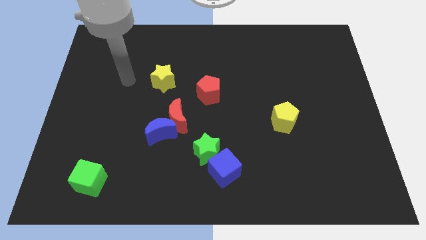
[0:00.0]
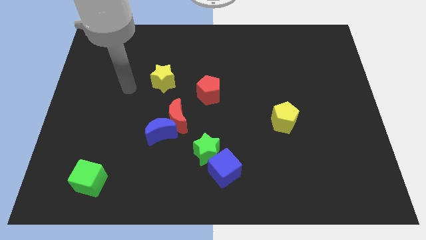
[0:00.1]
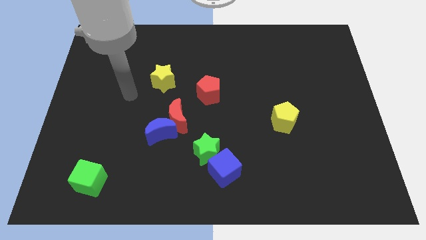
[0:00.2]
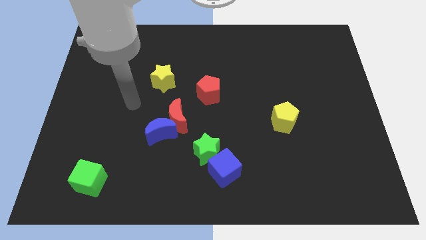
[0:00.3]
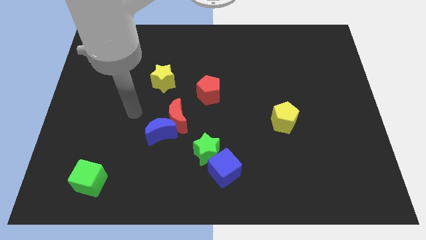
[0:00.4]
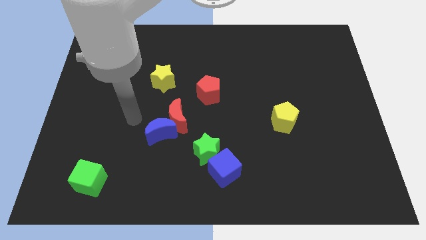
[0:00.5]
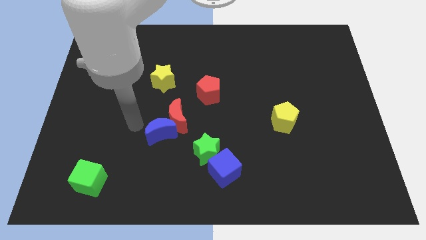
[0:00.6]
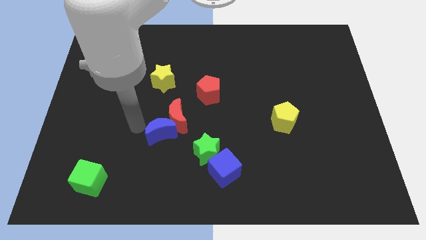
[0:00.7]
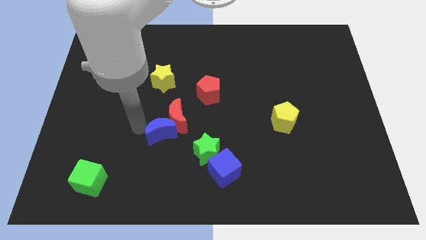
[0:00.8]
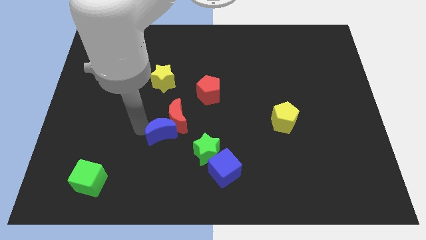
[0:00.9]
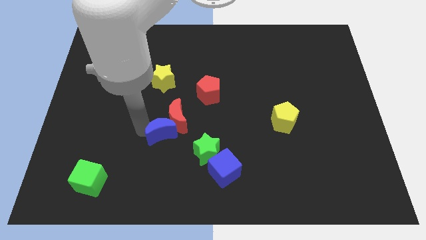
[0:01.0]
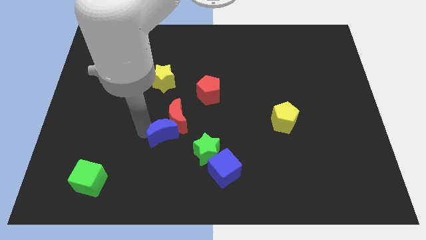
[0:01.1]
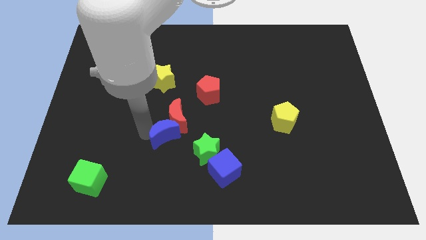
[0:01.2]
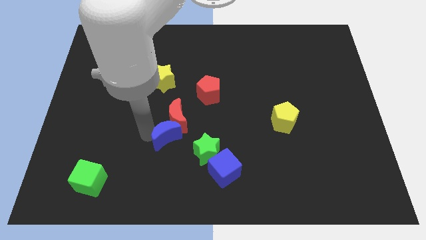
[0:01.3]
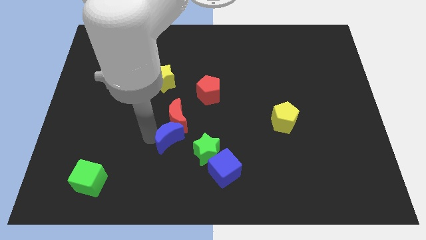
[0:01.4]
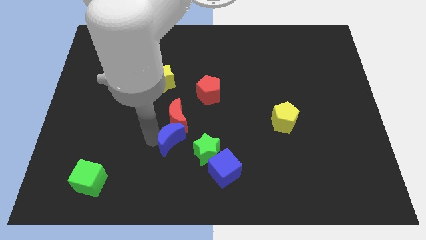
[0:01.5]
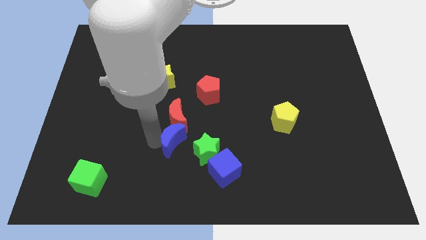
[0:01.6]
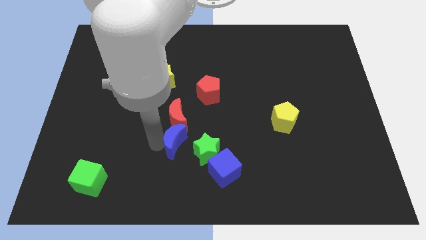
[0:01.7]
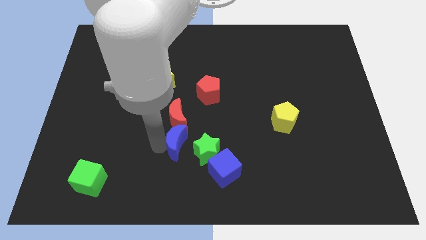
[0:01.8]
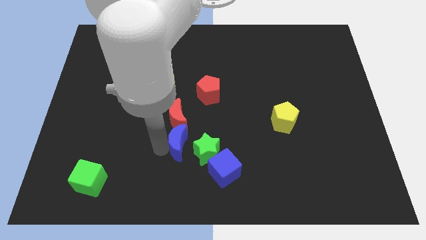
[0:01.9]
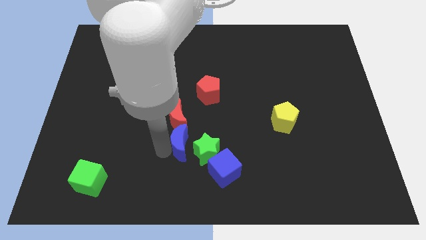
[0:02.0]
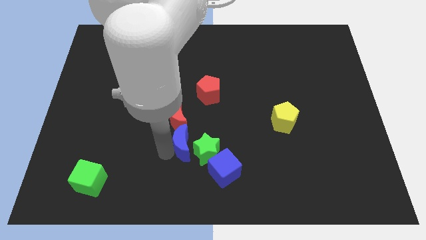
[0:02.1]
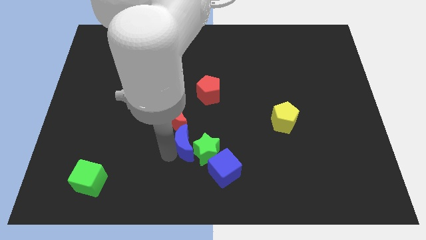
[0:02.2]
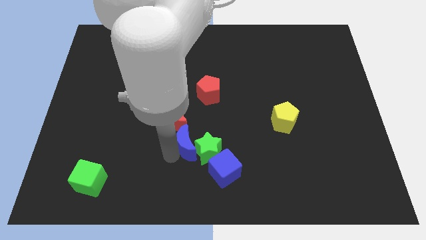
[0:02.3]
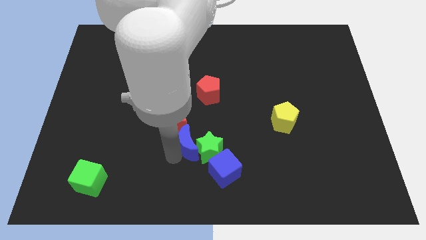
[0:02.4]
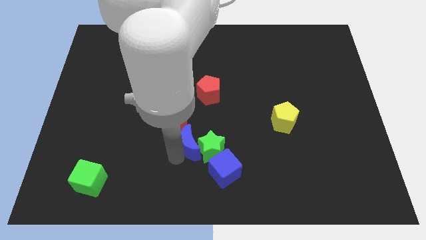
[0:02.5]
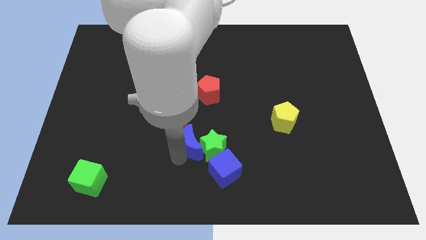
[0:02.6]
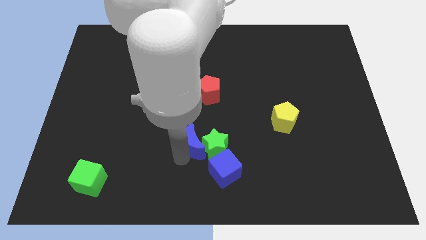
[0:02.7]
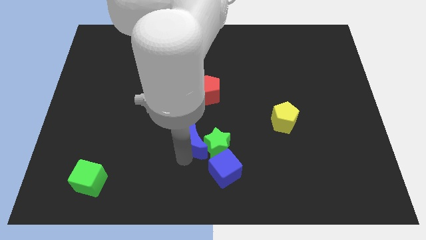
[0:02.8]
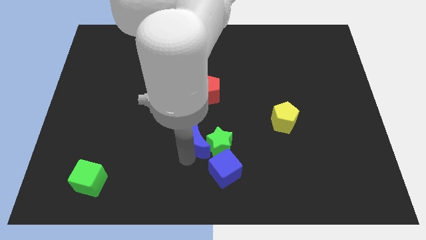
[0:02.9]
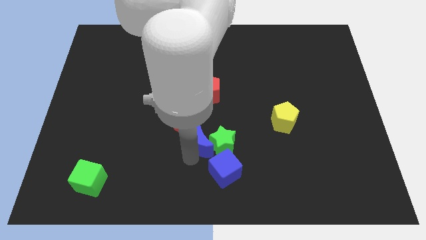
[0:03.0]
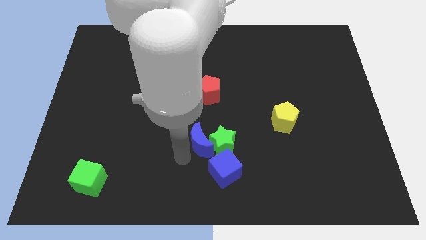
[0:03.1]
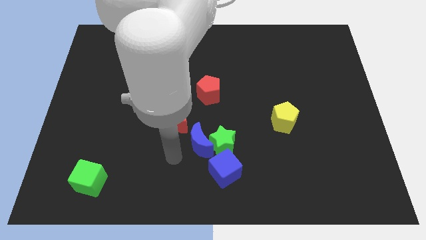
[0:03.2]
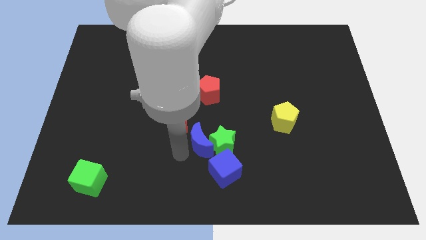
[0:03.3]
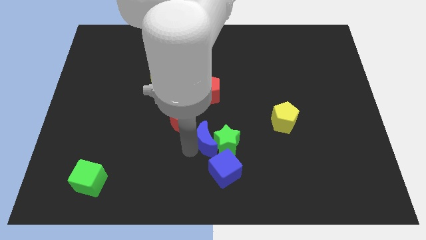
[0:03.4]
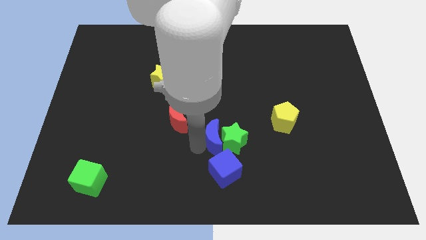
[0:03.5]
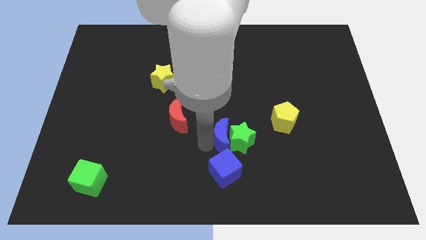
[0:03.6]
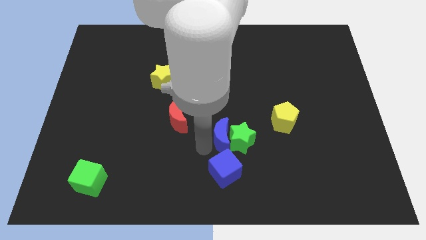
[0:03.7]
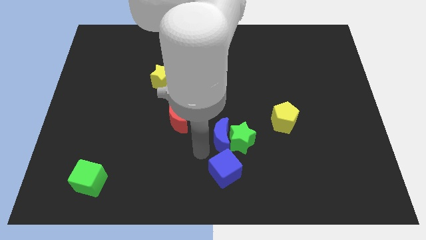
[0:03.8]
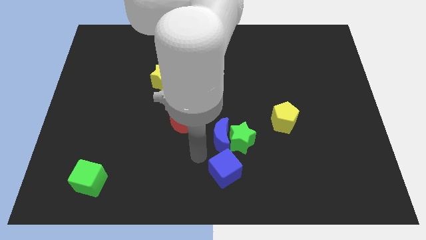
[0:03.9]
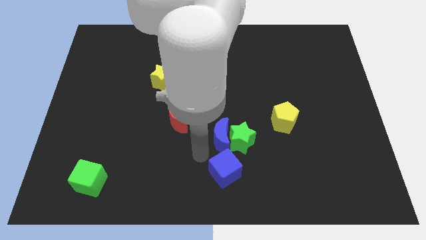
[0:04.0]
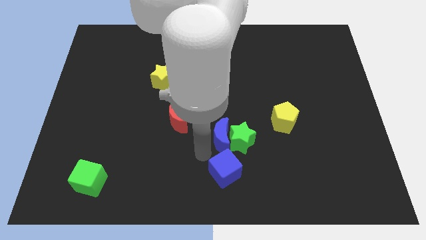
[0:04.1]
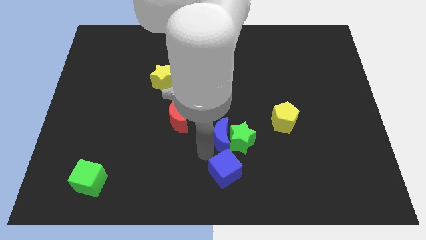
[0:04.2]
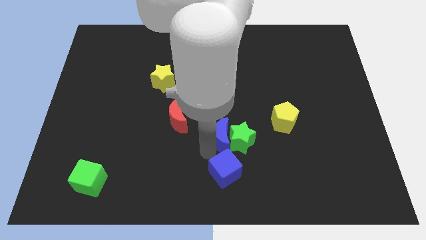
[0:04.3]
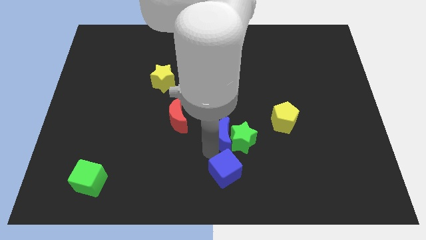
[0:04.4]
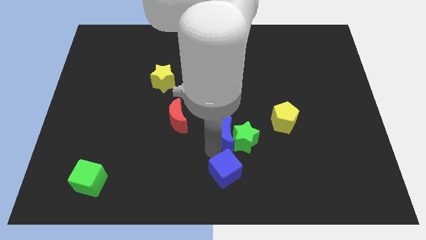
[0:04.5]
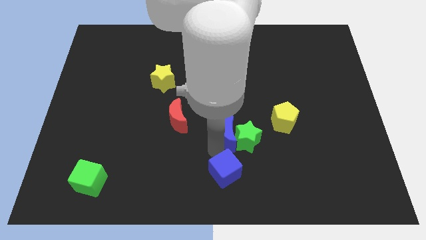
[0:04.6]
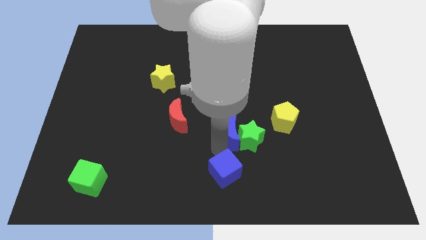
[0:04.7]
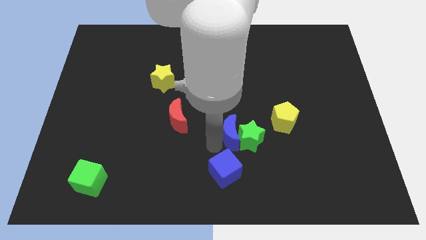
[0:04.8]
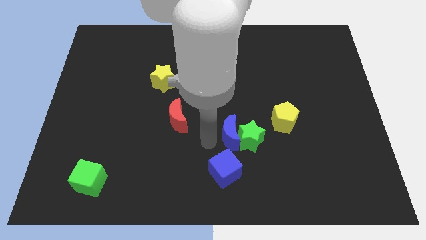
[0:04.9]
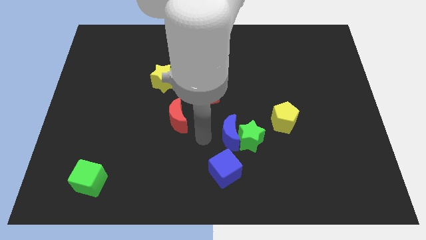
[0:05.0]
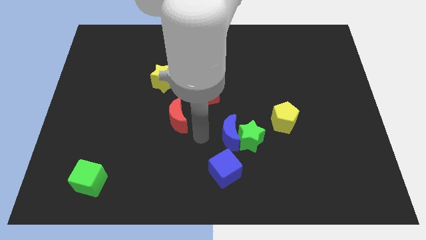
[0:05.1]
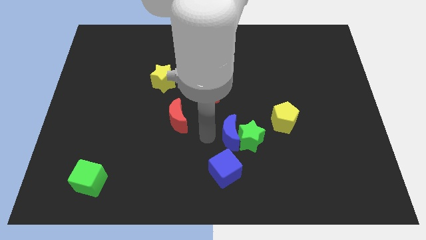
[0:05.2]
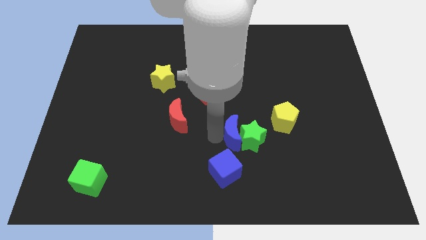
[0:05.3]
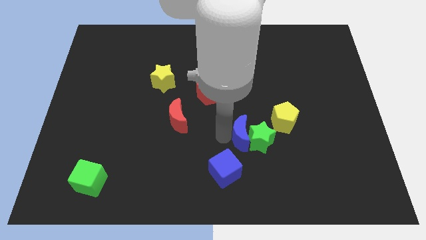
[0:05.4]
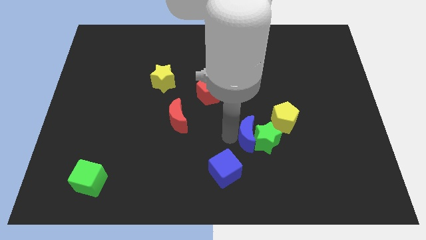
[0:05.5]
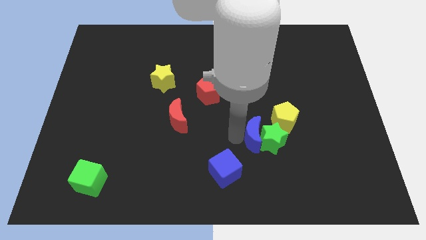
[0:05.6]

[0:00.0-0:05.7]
move the blue moon to the right

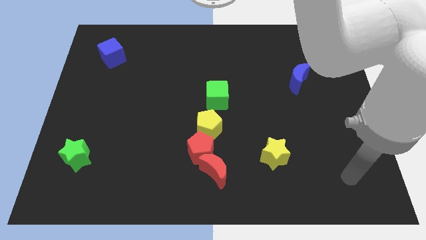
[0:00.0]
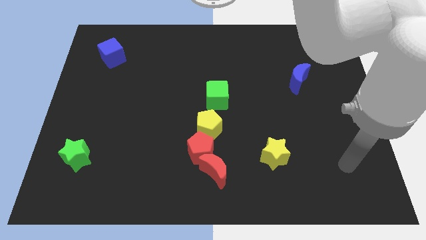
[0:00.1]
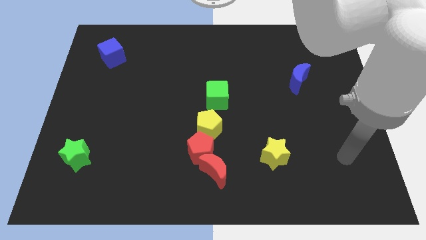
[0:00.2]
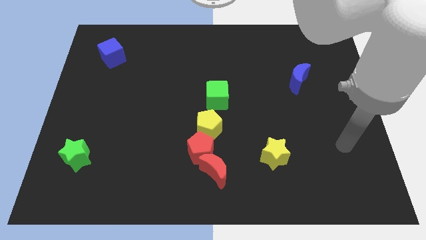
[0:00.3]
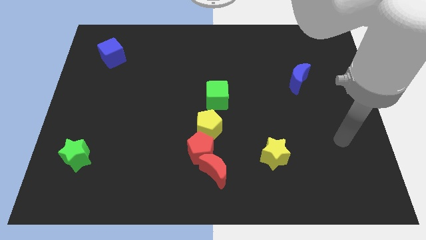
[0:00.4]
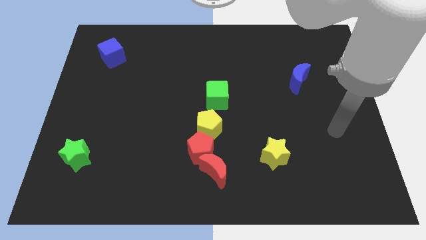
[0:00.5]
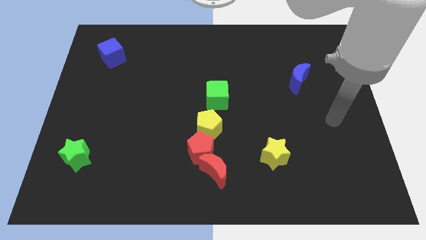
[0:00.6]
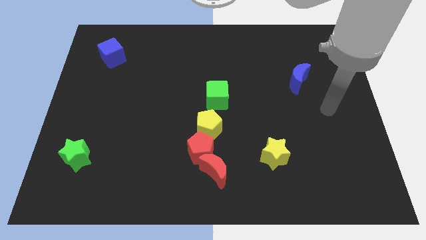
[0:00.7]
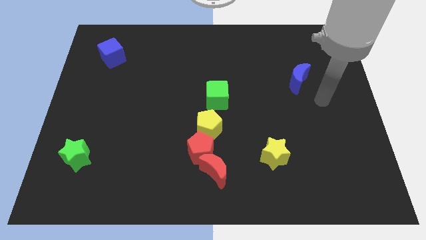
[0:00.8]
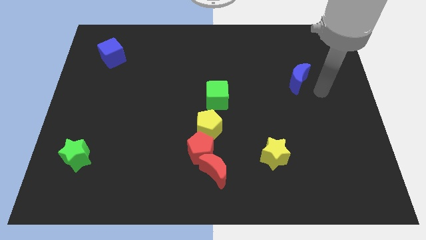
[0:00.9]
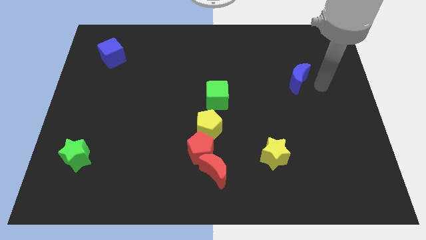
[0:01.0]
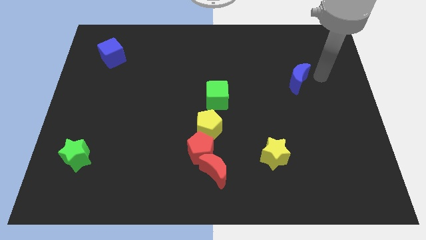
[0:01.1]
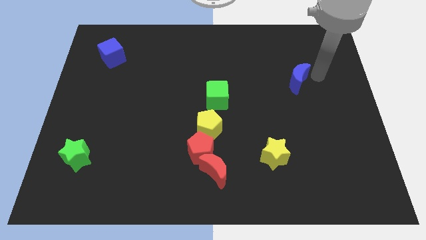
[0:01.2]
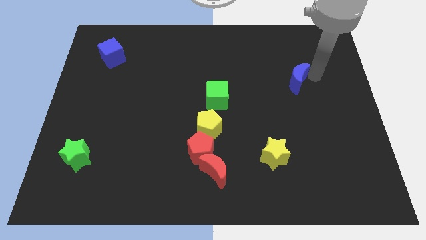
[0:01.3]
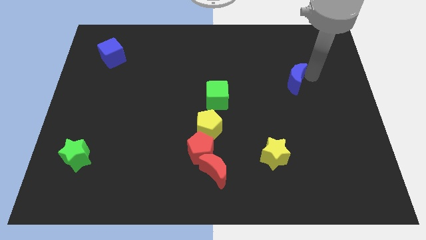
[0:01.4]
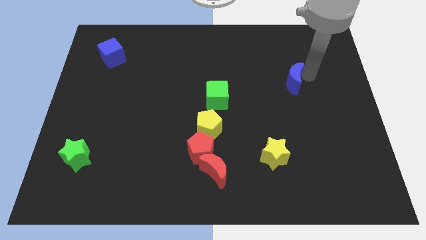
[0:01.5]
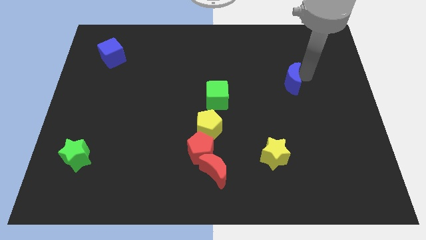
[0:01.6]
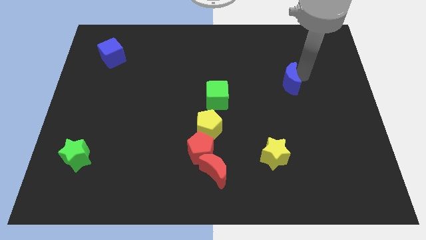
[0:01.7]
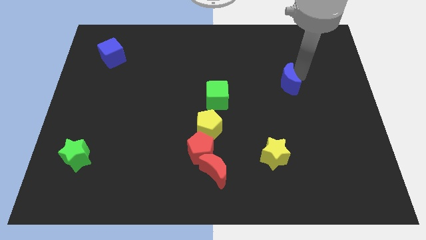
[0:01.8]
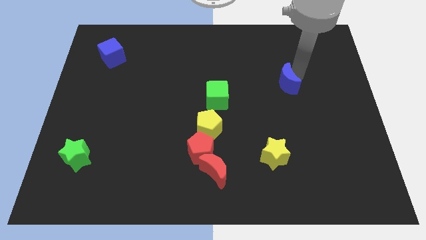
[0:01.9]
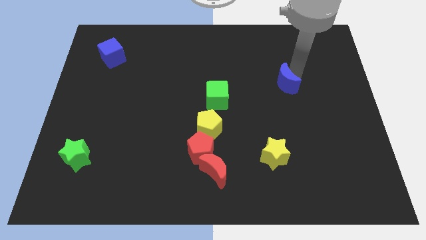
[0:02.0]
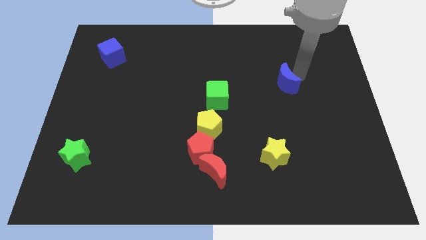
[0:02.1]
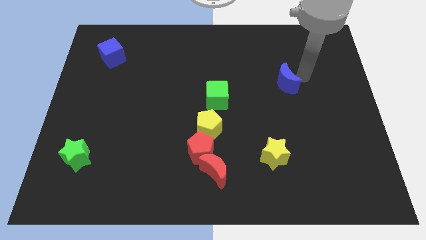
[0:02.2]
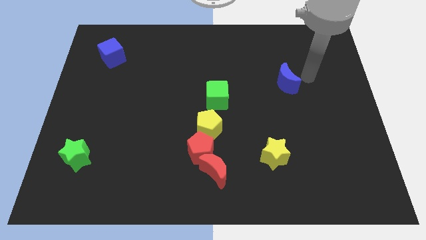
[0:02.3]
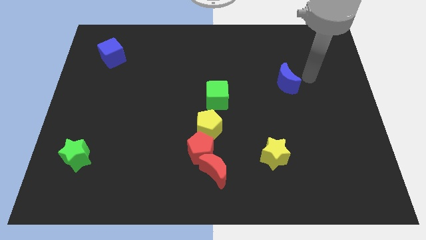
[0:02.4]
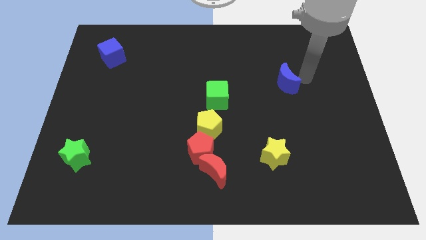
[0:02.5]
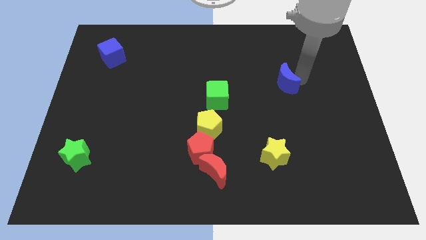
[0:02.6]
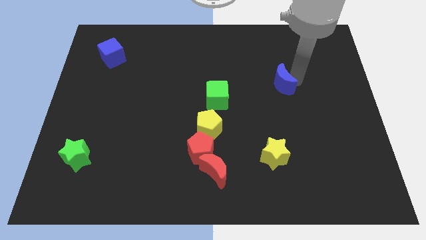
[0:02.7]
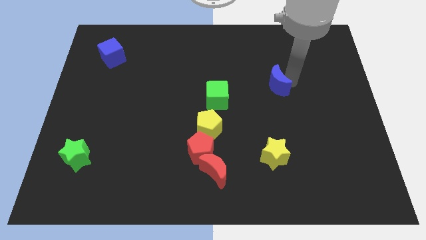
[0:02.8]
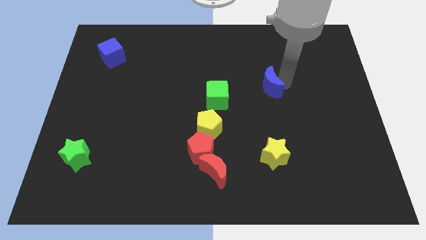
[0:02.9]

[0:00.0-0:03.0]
push the blue moon left a bit

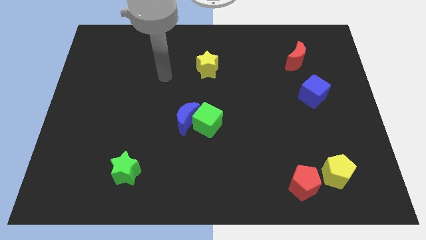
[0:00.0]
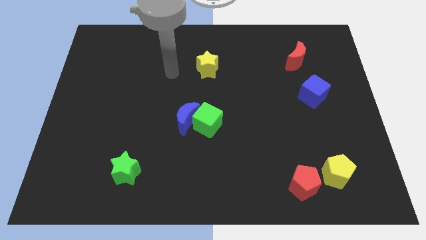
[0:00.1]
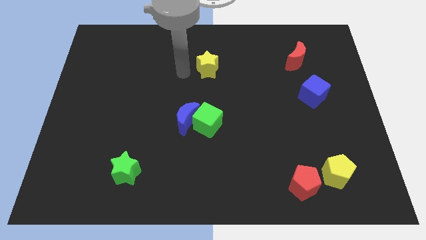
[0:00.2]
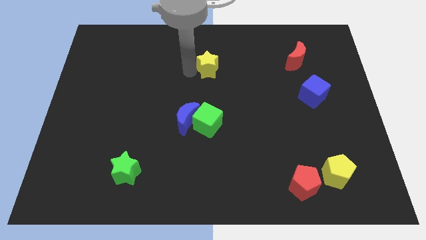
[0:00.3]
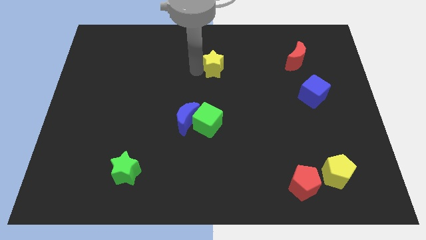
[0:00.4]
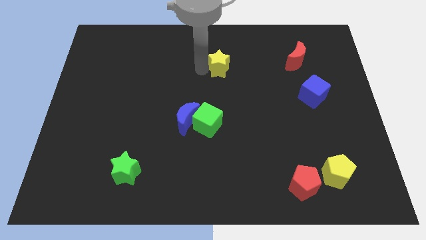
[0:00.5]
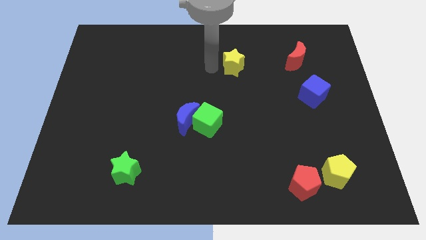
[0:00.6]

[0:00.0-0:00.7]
push the yellow star to the right slightly
